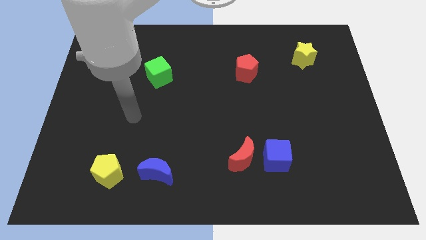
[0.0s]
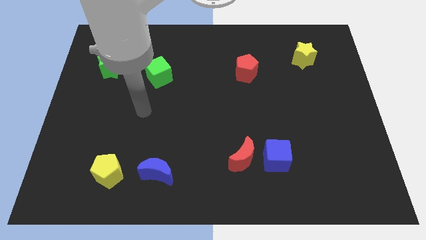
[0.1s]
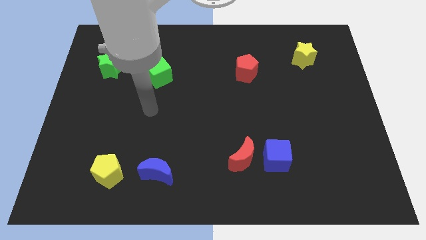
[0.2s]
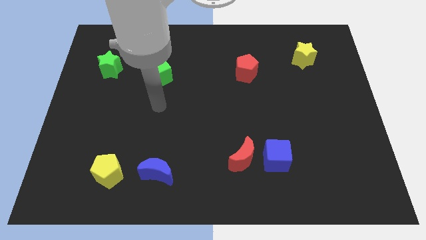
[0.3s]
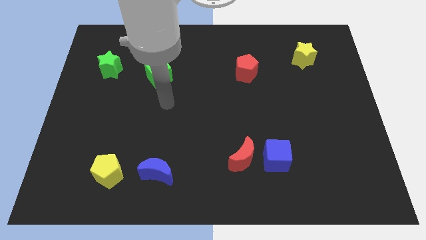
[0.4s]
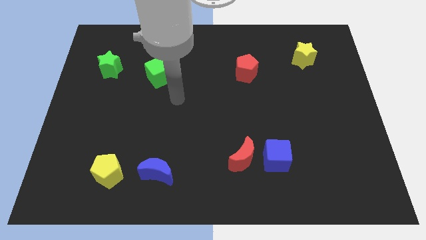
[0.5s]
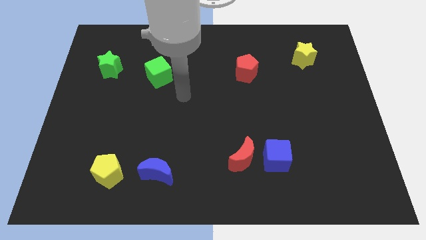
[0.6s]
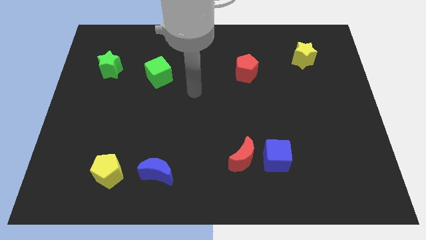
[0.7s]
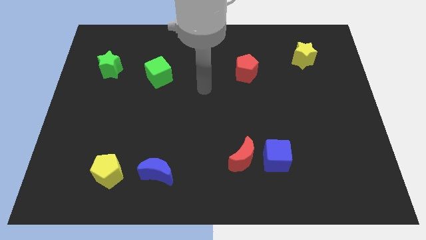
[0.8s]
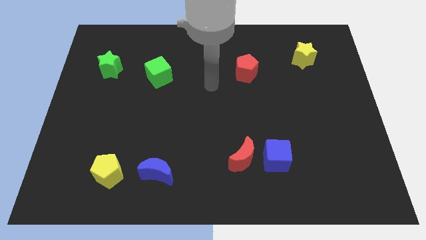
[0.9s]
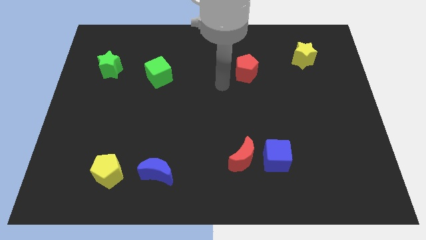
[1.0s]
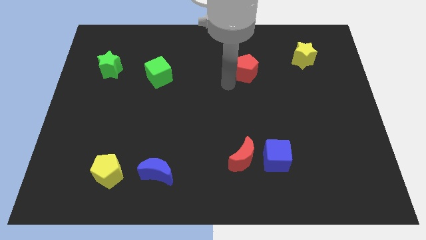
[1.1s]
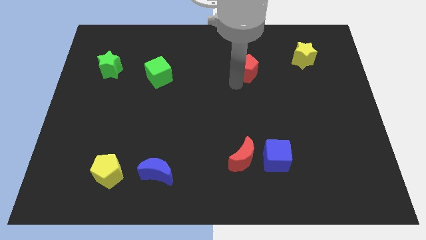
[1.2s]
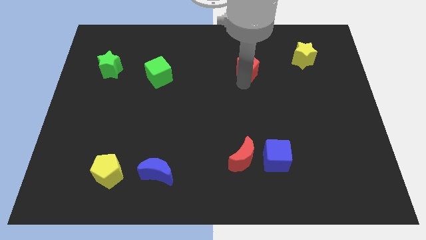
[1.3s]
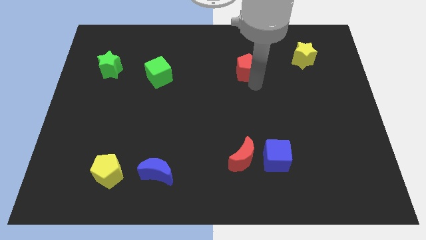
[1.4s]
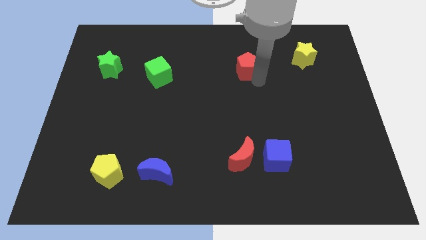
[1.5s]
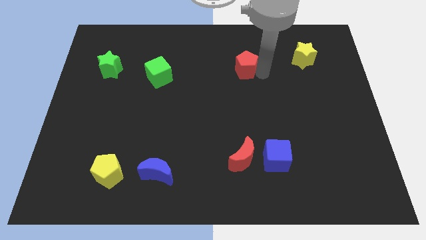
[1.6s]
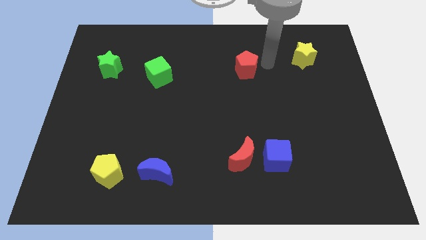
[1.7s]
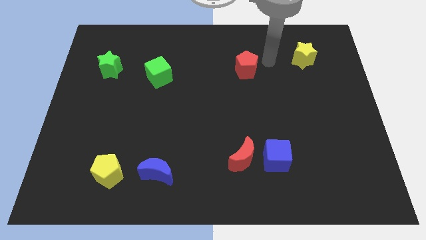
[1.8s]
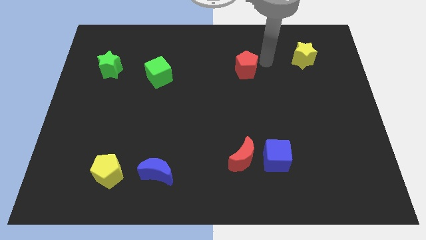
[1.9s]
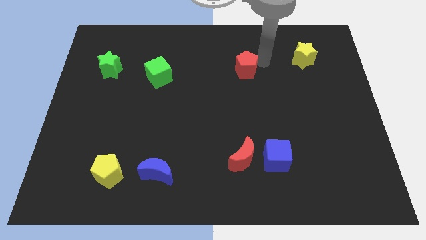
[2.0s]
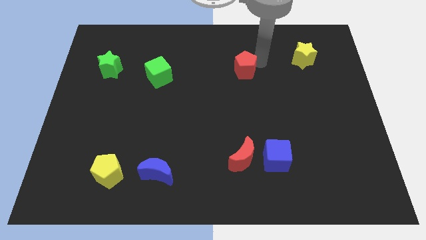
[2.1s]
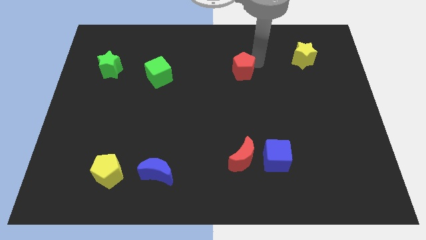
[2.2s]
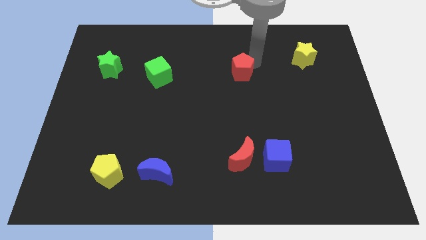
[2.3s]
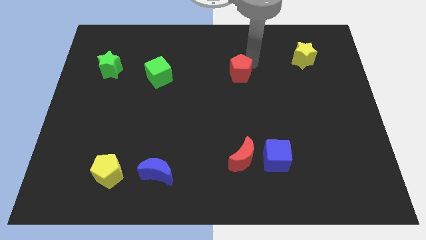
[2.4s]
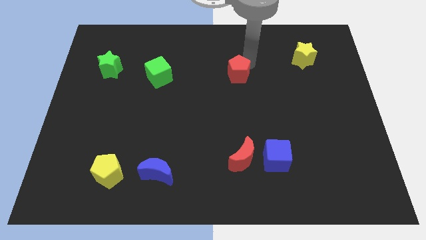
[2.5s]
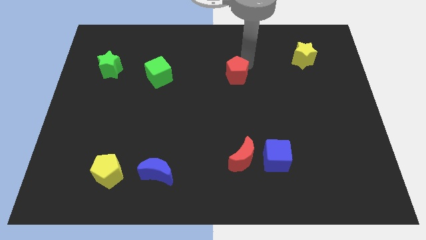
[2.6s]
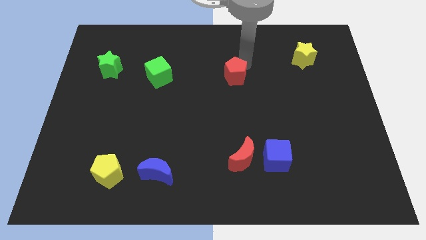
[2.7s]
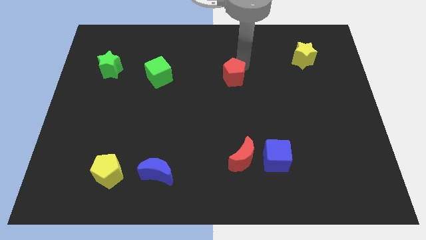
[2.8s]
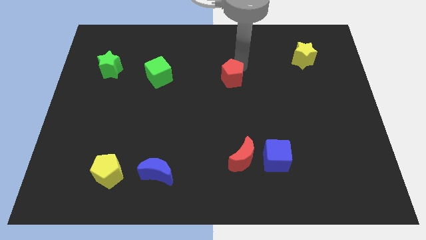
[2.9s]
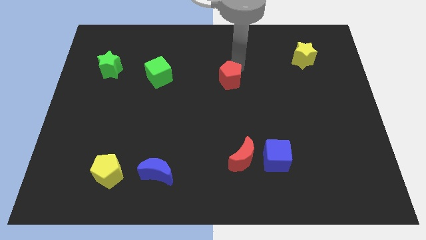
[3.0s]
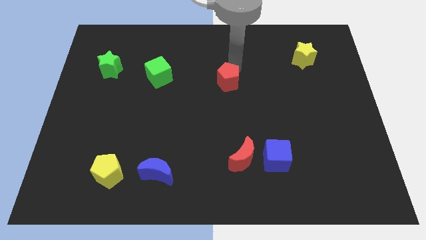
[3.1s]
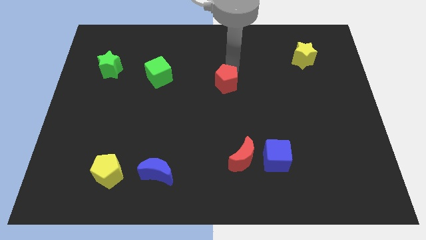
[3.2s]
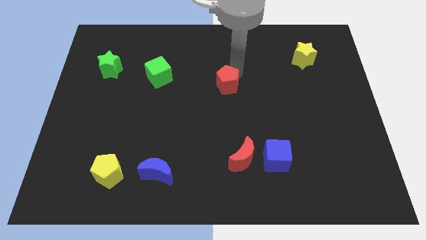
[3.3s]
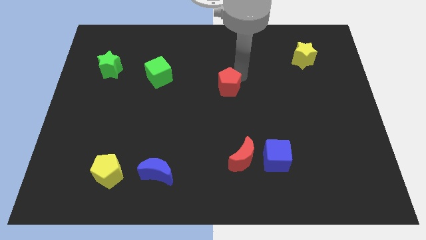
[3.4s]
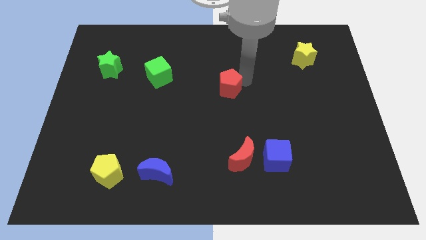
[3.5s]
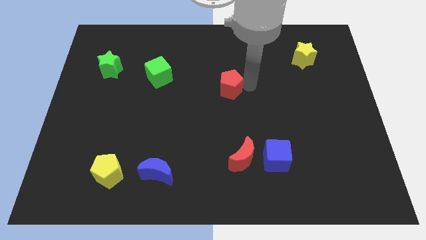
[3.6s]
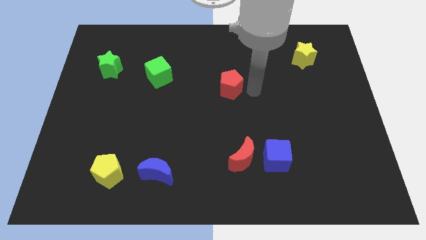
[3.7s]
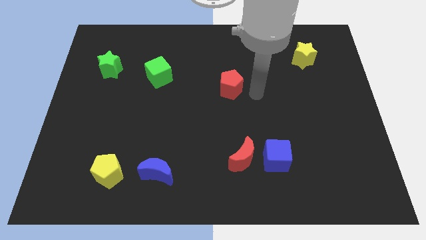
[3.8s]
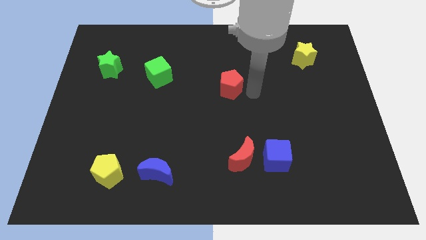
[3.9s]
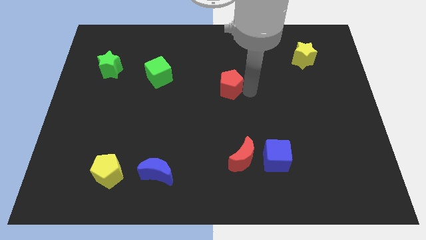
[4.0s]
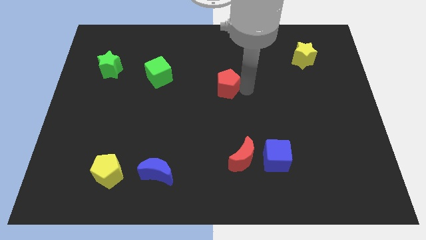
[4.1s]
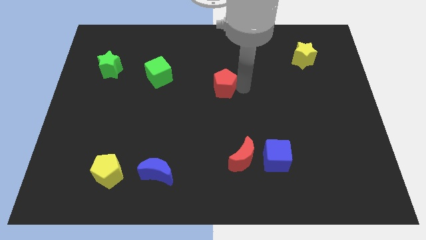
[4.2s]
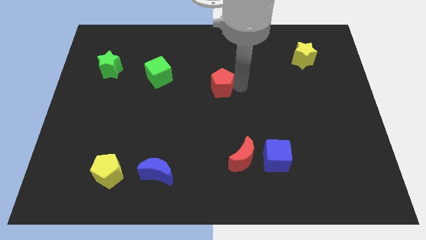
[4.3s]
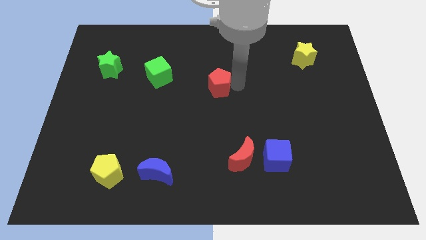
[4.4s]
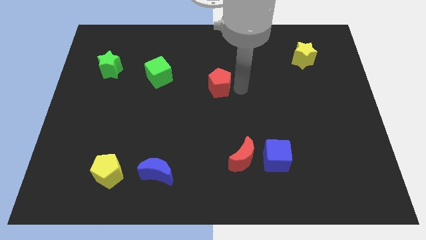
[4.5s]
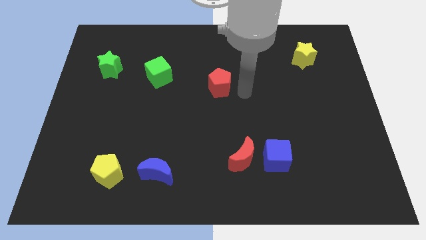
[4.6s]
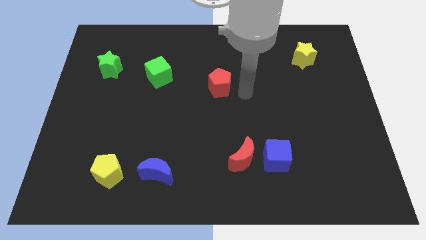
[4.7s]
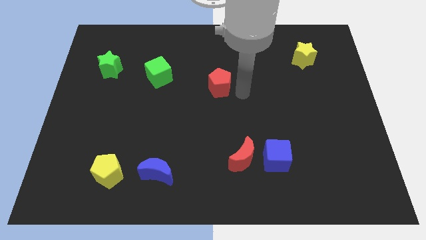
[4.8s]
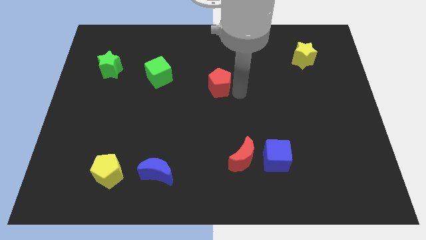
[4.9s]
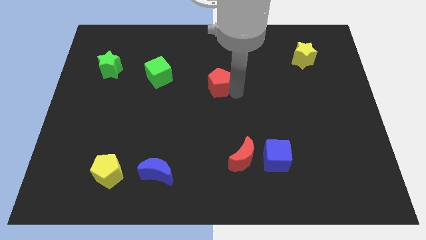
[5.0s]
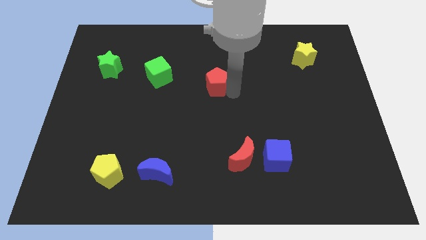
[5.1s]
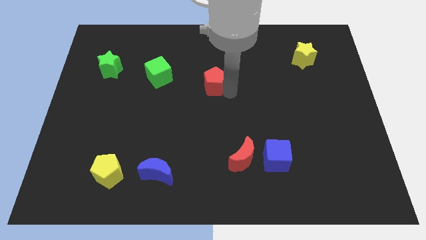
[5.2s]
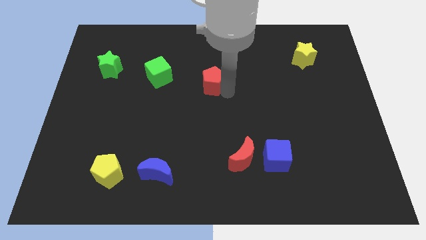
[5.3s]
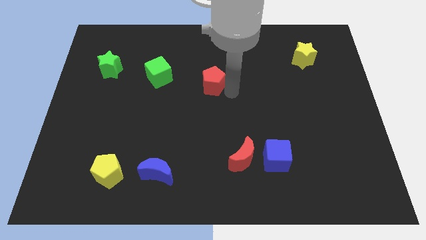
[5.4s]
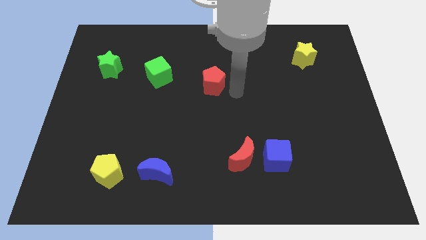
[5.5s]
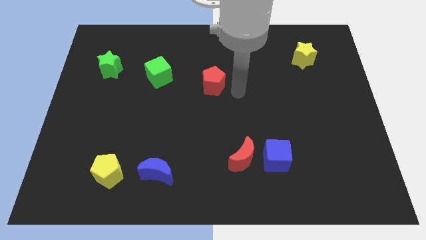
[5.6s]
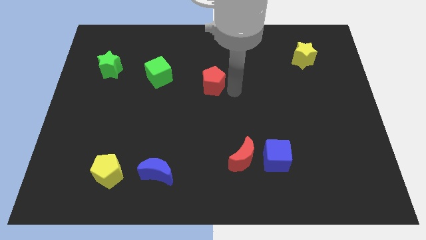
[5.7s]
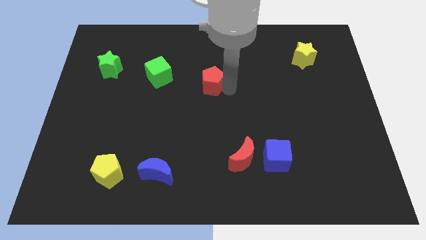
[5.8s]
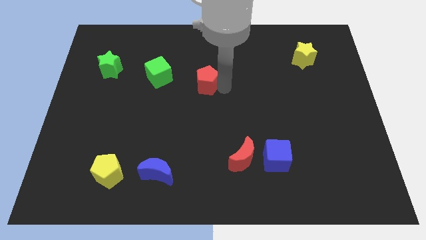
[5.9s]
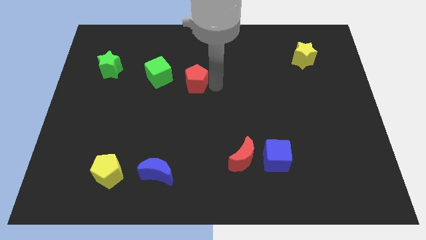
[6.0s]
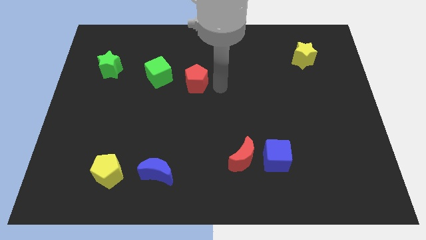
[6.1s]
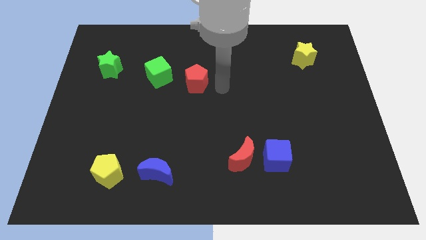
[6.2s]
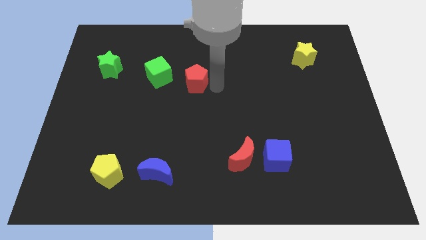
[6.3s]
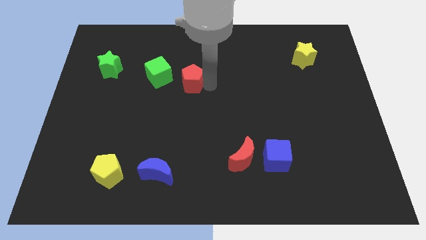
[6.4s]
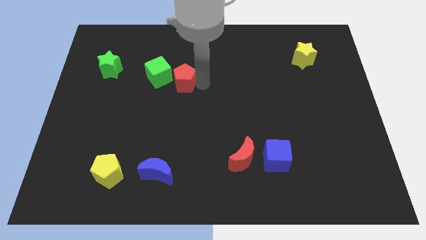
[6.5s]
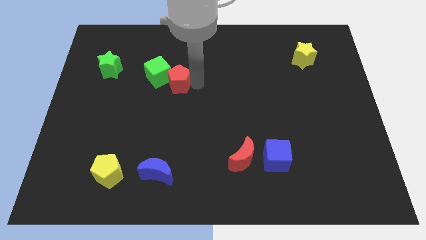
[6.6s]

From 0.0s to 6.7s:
put the red pentagon towards the green cube
